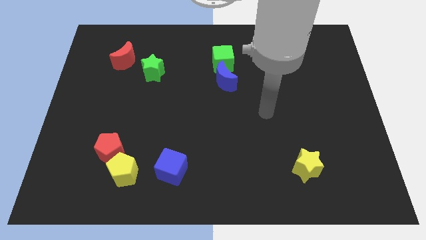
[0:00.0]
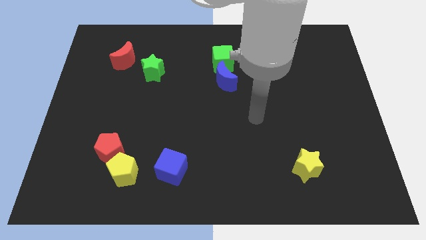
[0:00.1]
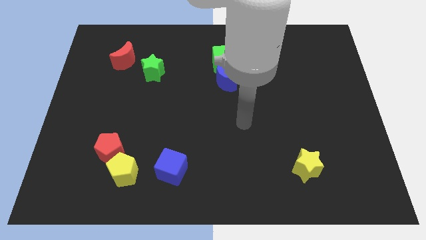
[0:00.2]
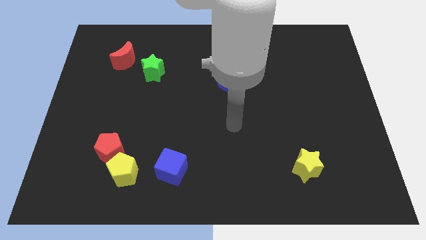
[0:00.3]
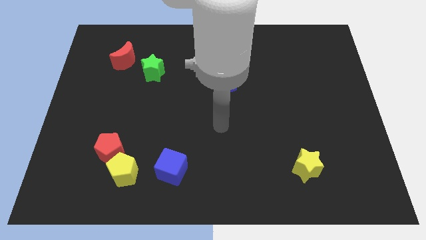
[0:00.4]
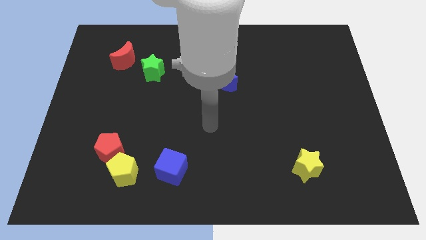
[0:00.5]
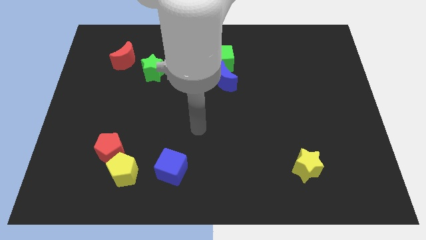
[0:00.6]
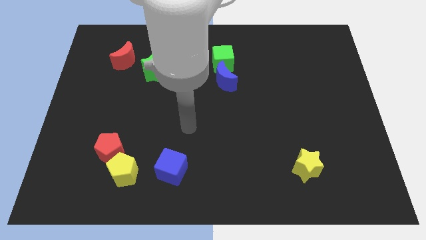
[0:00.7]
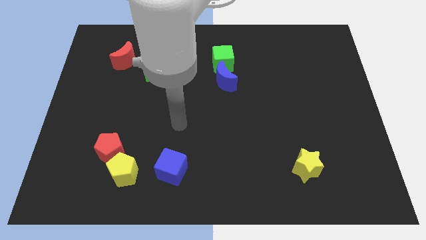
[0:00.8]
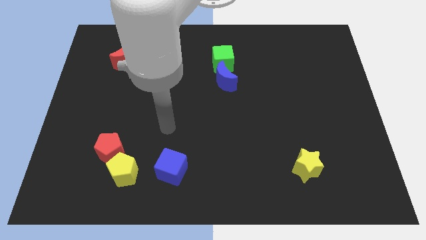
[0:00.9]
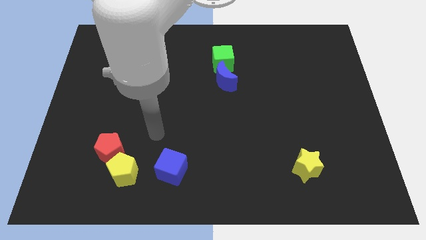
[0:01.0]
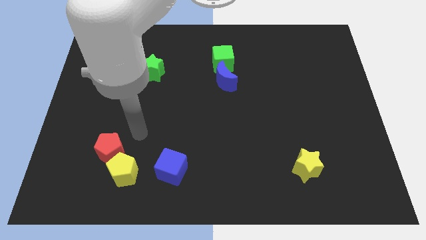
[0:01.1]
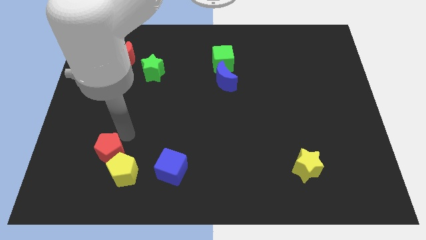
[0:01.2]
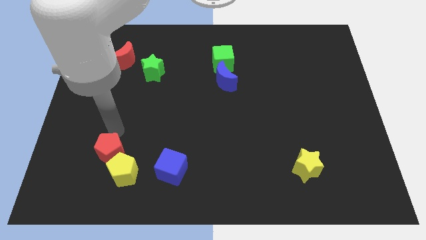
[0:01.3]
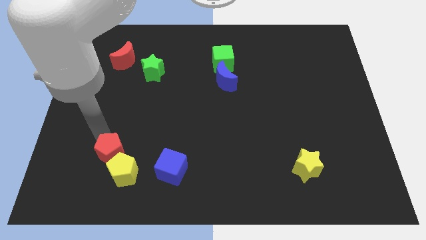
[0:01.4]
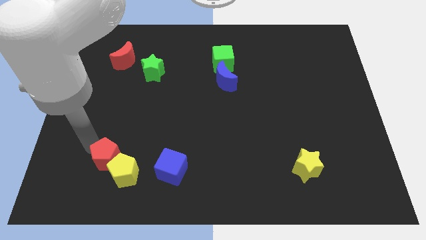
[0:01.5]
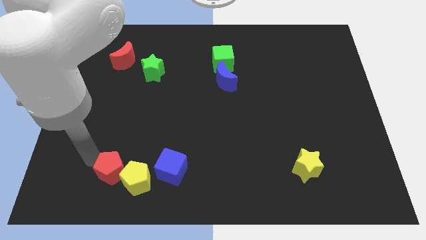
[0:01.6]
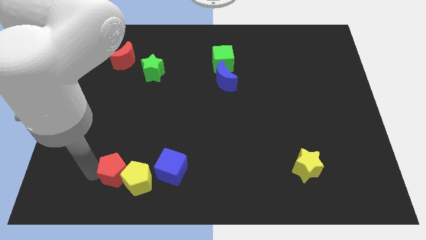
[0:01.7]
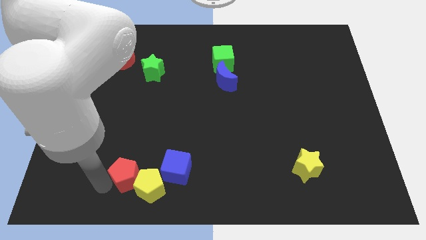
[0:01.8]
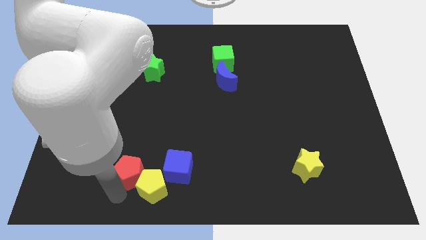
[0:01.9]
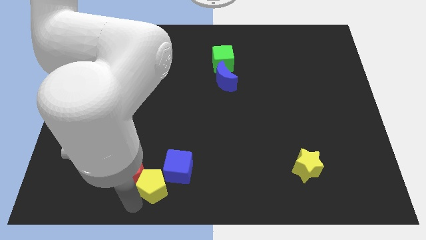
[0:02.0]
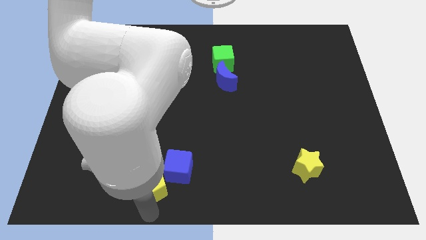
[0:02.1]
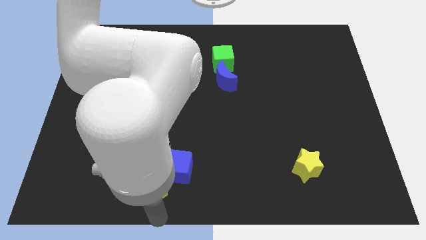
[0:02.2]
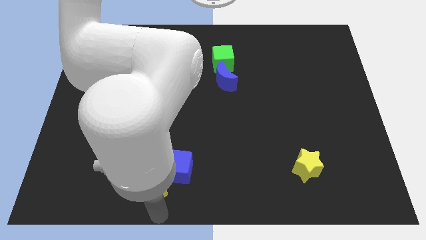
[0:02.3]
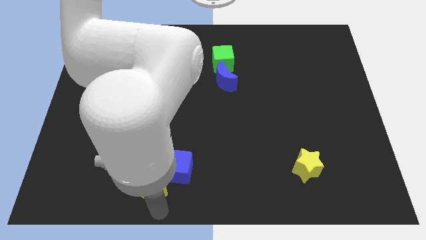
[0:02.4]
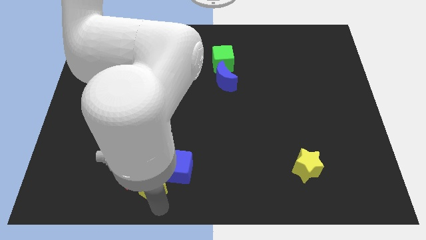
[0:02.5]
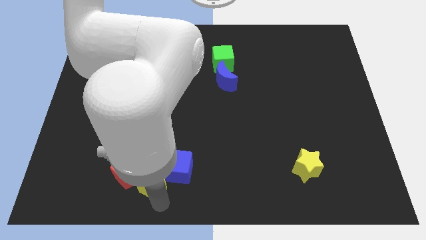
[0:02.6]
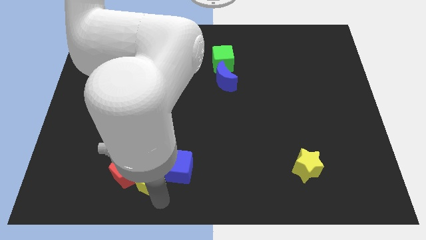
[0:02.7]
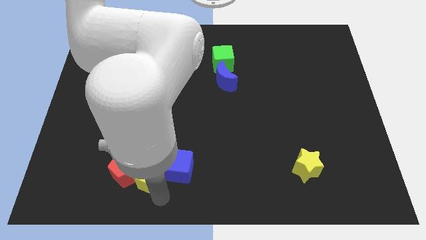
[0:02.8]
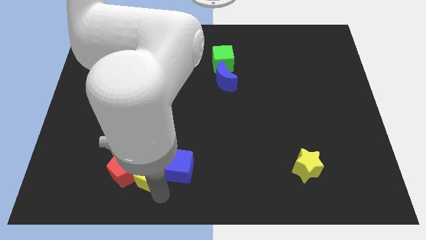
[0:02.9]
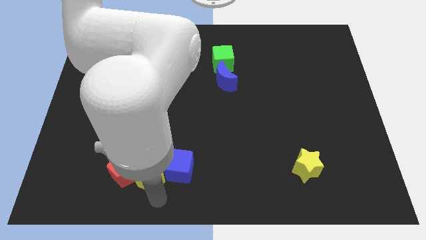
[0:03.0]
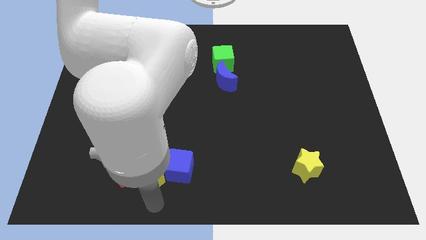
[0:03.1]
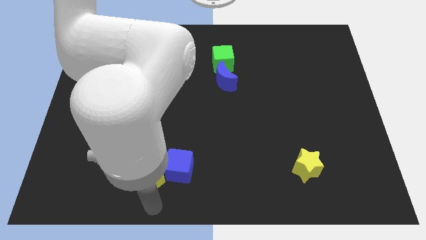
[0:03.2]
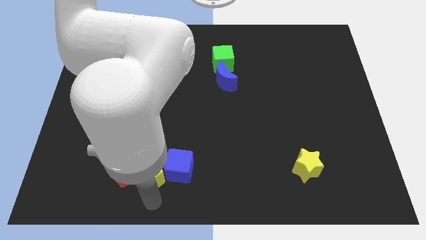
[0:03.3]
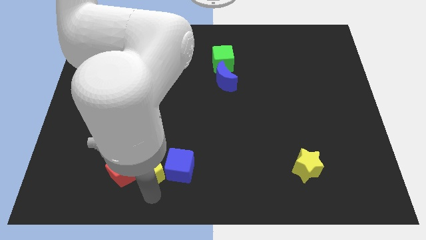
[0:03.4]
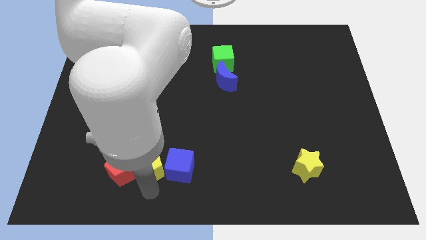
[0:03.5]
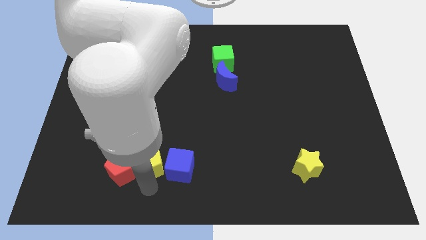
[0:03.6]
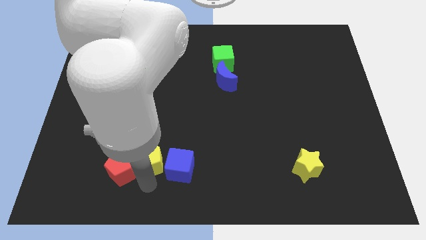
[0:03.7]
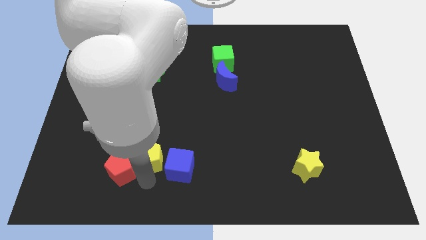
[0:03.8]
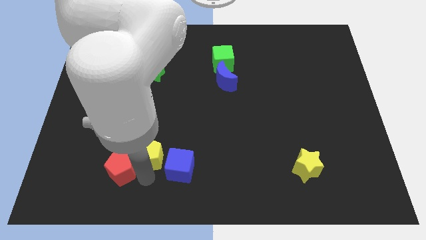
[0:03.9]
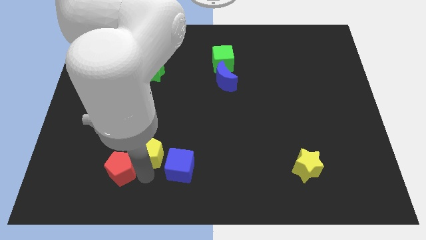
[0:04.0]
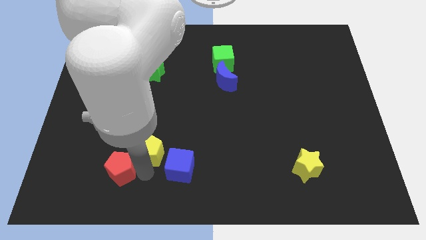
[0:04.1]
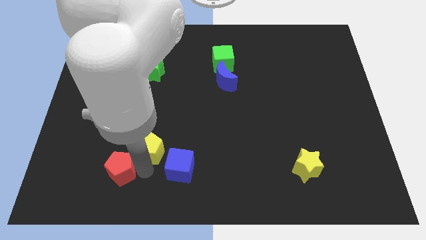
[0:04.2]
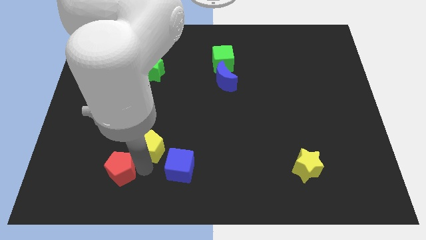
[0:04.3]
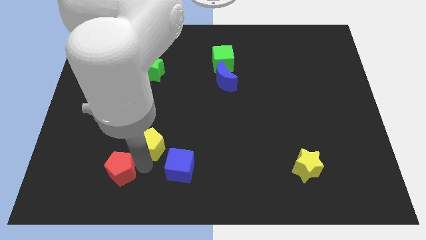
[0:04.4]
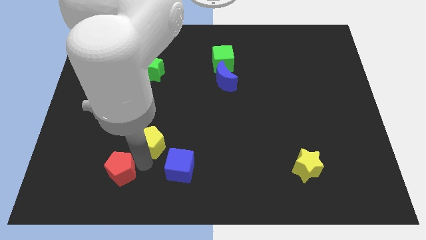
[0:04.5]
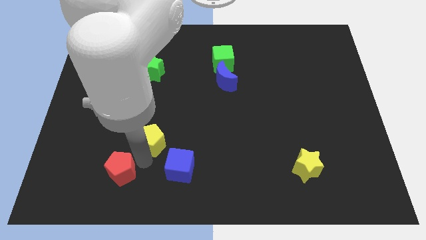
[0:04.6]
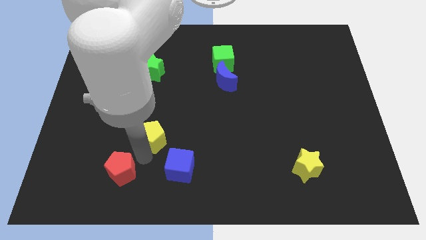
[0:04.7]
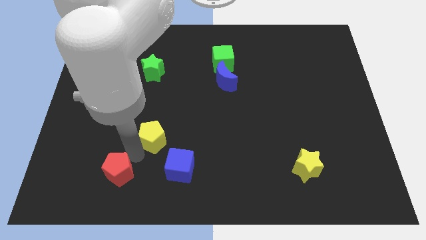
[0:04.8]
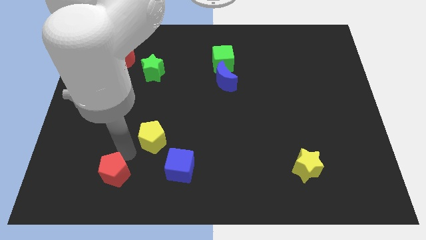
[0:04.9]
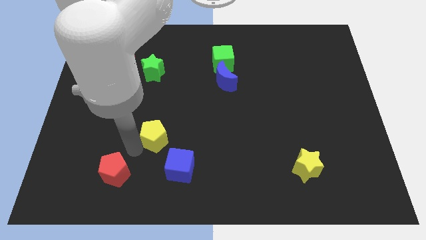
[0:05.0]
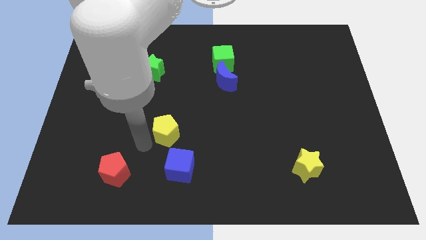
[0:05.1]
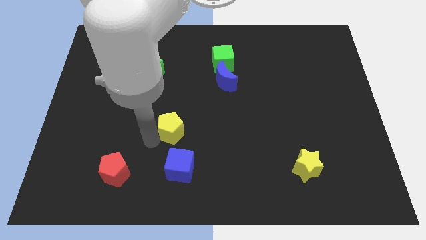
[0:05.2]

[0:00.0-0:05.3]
move the yellow pentagon to the center

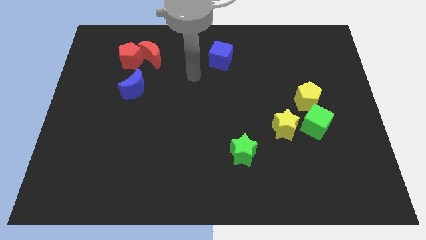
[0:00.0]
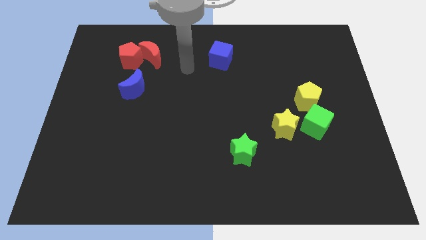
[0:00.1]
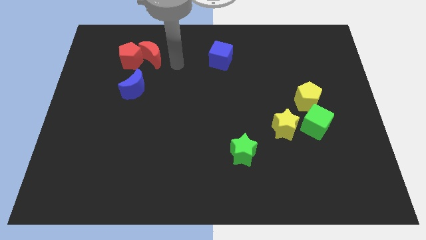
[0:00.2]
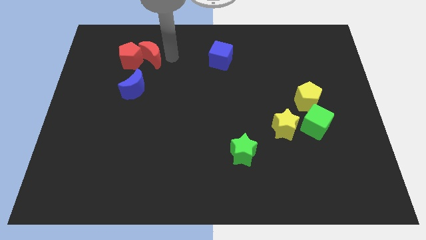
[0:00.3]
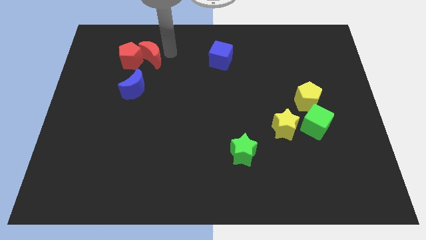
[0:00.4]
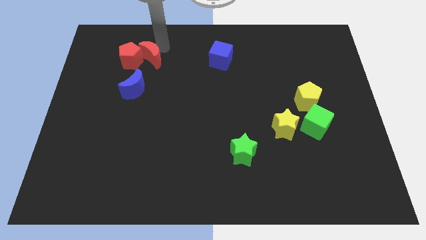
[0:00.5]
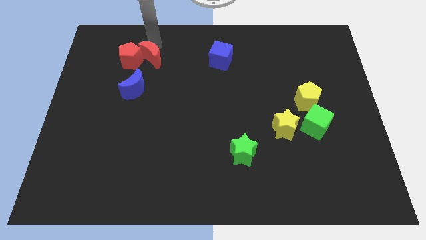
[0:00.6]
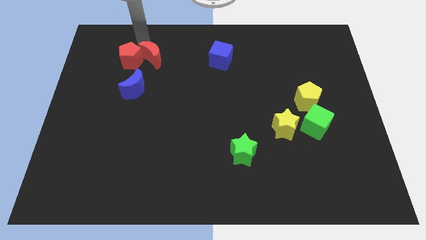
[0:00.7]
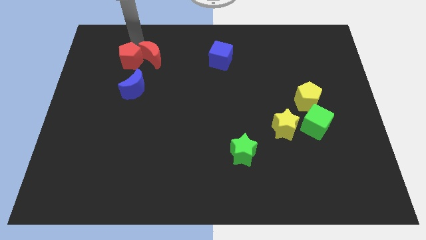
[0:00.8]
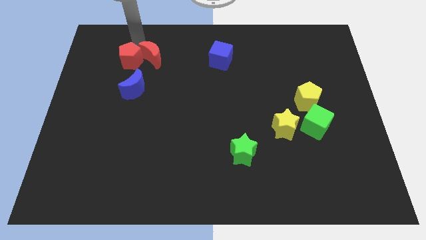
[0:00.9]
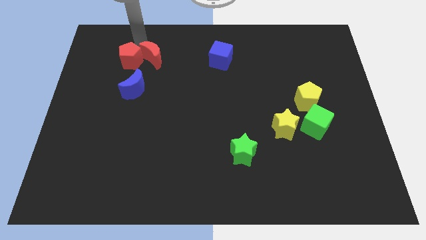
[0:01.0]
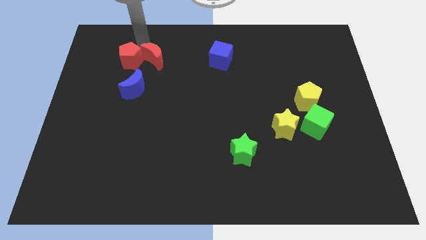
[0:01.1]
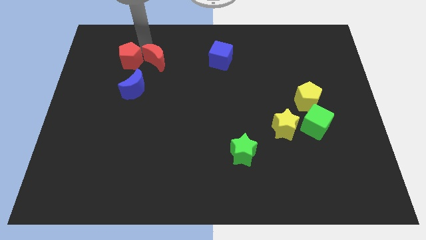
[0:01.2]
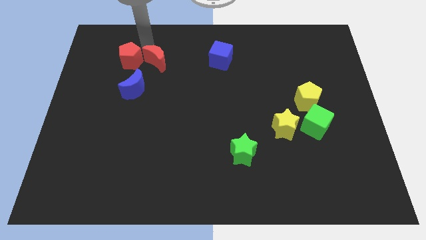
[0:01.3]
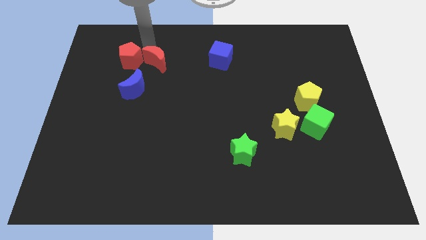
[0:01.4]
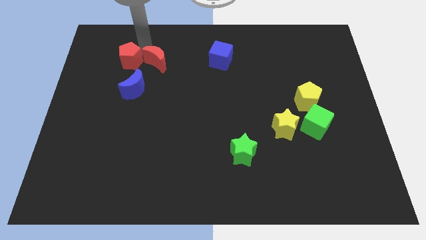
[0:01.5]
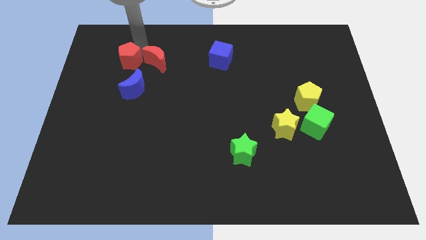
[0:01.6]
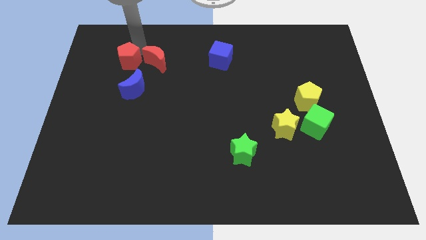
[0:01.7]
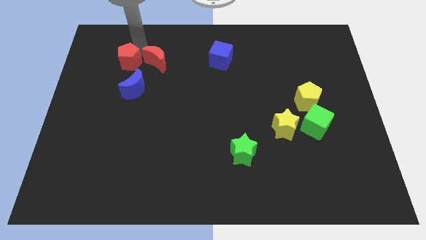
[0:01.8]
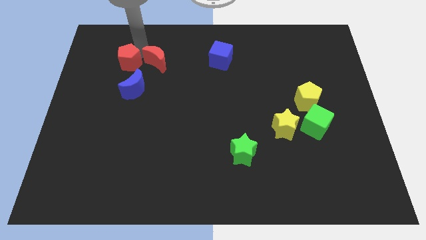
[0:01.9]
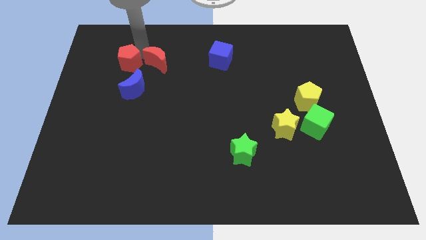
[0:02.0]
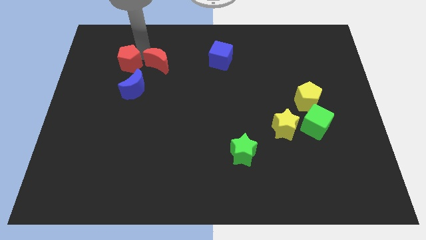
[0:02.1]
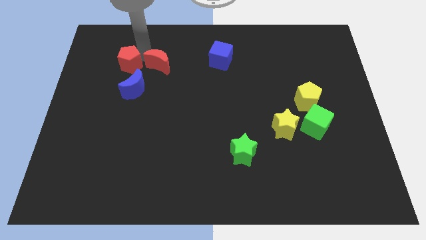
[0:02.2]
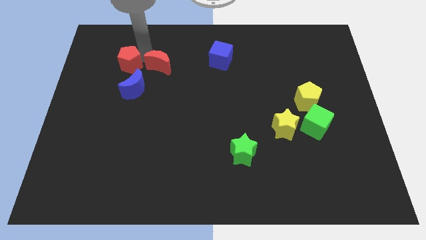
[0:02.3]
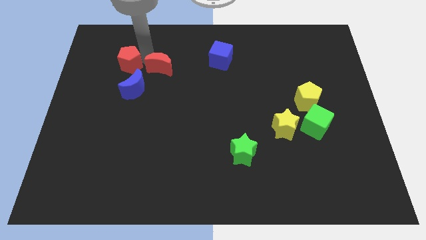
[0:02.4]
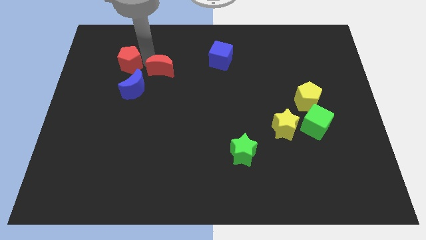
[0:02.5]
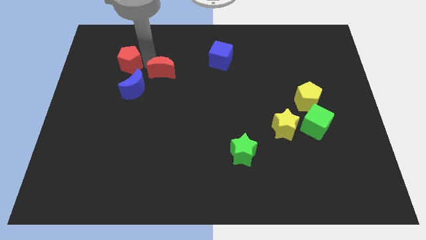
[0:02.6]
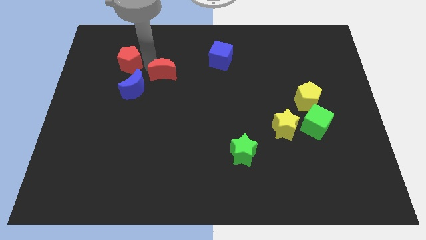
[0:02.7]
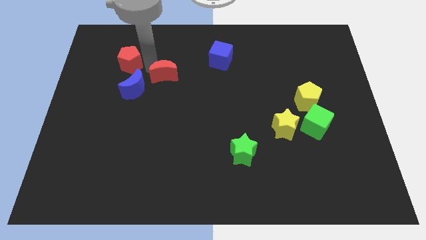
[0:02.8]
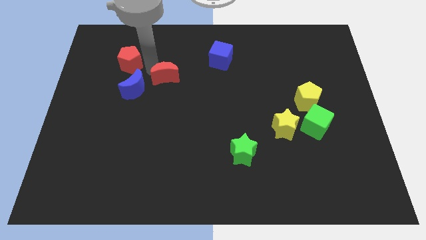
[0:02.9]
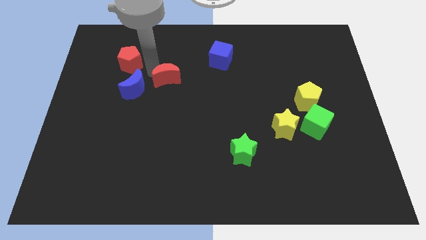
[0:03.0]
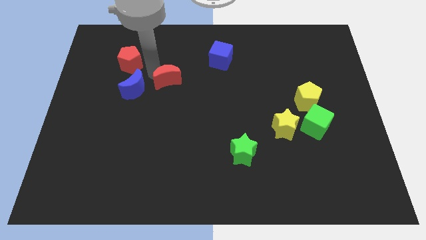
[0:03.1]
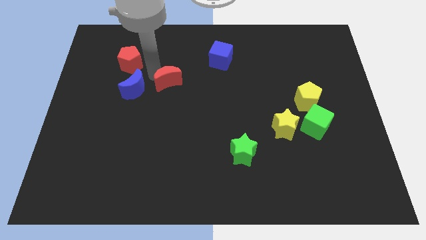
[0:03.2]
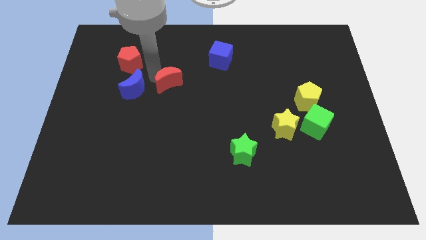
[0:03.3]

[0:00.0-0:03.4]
slide the red moon to the middle of the board
